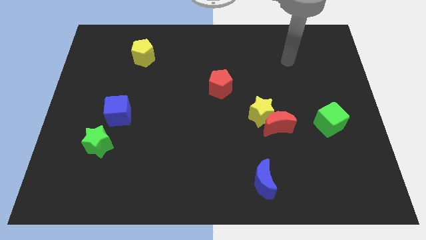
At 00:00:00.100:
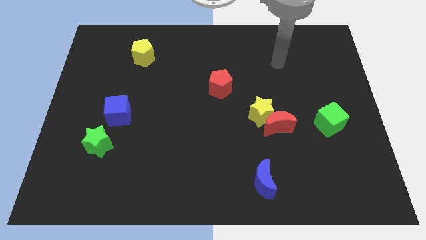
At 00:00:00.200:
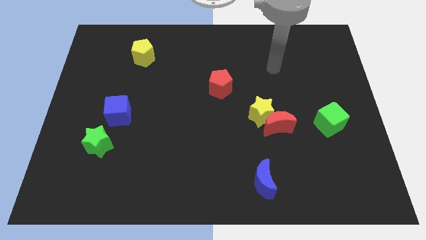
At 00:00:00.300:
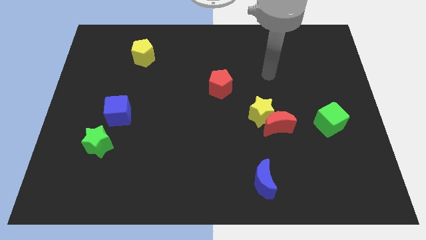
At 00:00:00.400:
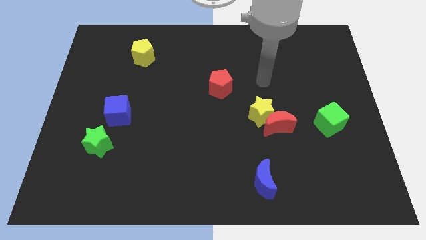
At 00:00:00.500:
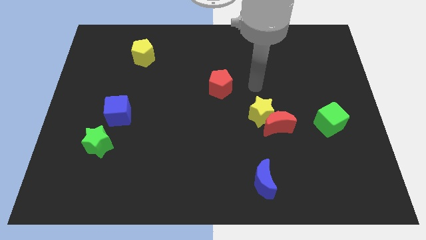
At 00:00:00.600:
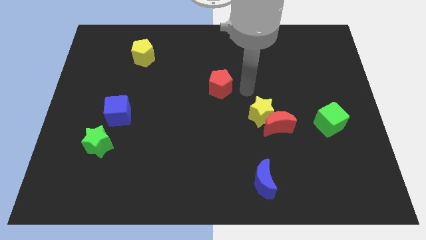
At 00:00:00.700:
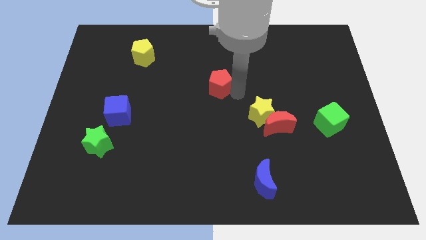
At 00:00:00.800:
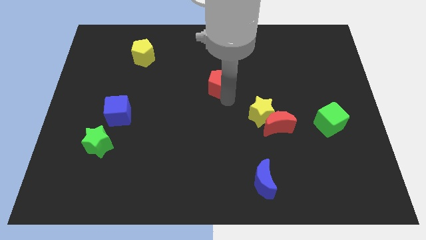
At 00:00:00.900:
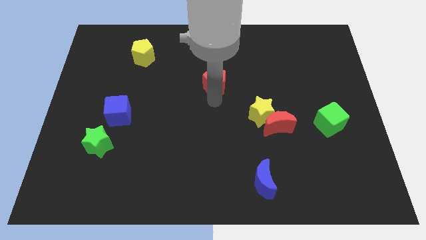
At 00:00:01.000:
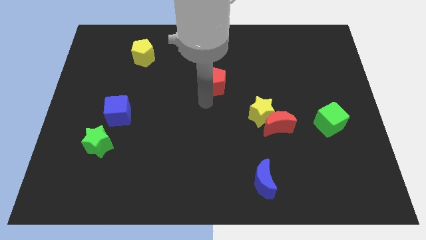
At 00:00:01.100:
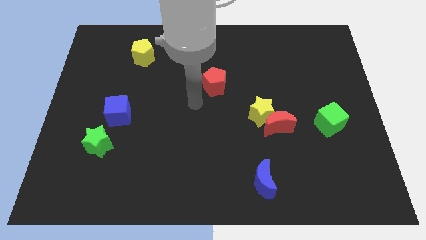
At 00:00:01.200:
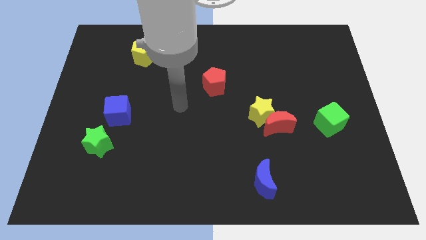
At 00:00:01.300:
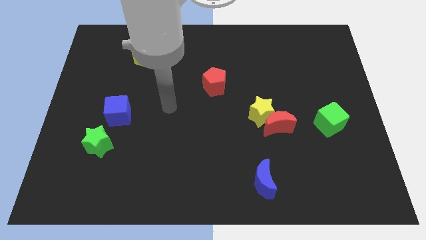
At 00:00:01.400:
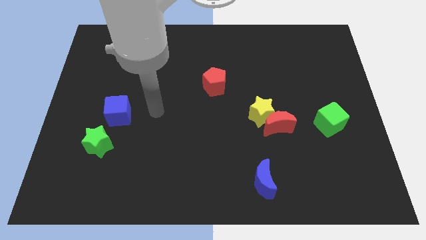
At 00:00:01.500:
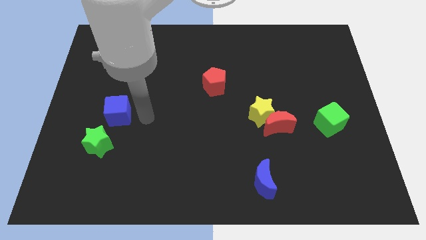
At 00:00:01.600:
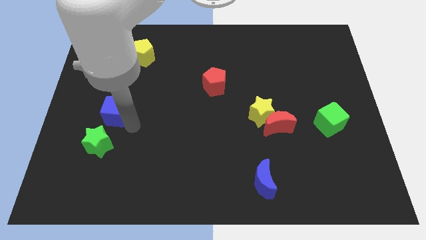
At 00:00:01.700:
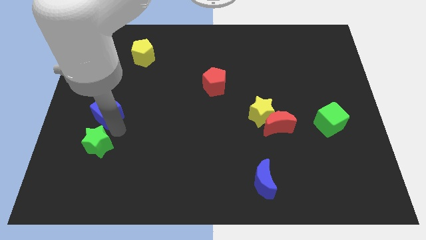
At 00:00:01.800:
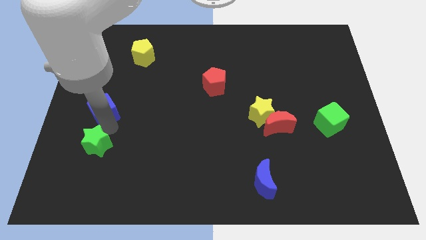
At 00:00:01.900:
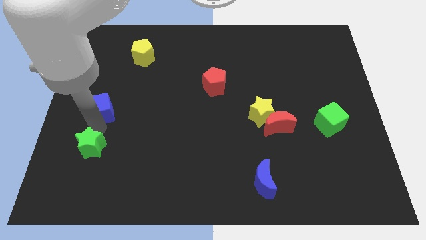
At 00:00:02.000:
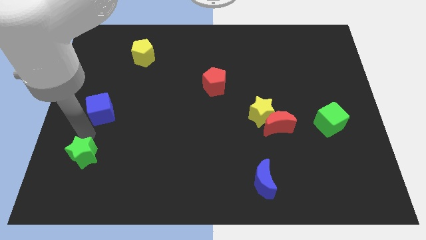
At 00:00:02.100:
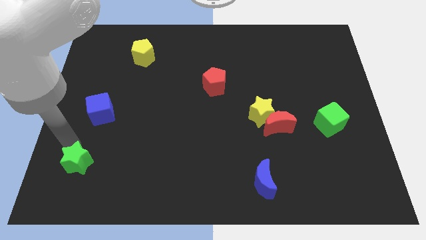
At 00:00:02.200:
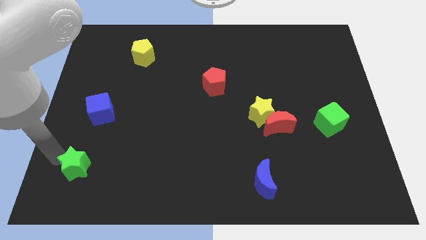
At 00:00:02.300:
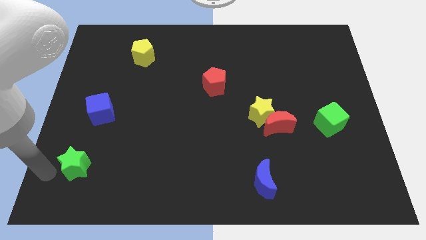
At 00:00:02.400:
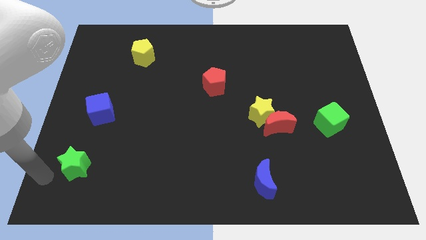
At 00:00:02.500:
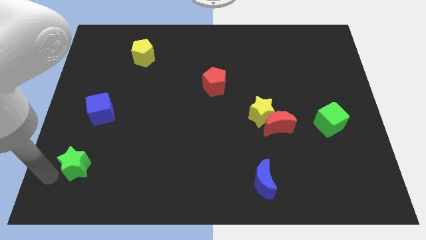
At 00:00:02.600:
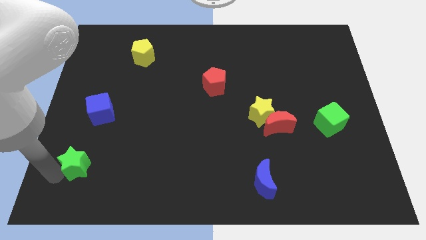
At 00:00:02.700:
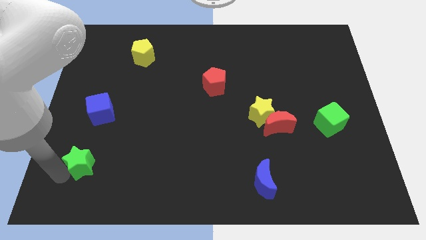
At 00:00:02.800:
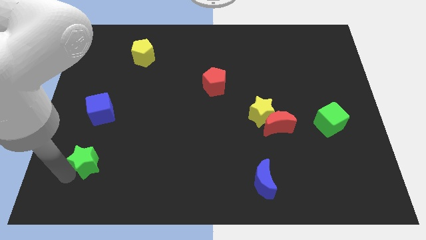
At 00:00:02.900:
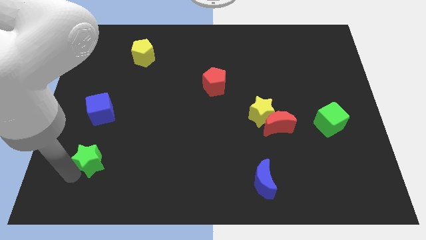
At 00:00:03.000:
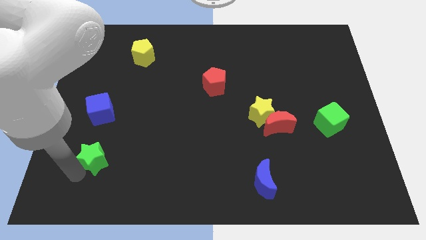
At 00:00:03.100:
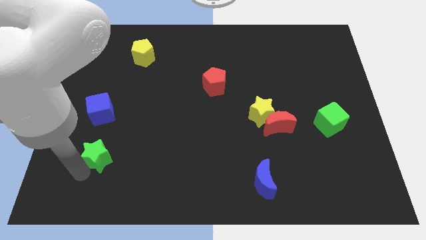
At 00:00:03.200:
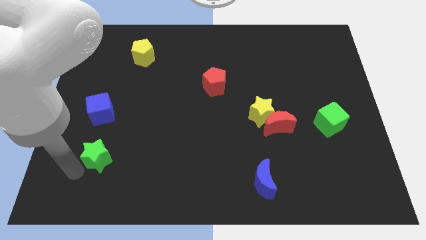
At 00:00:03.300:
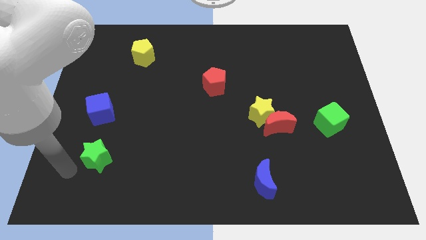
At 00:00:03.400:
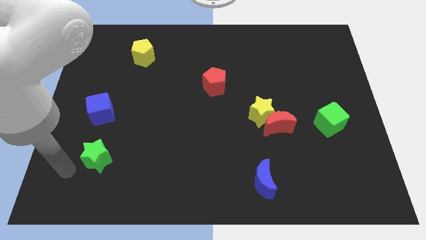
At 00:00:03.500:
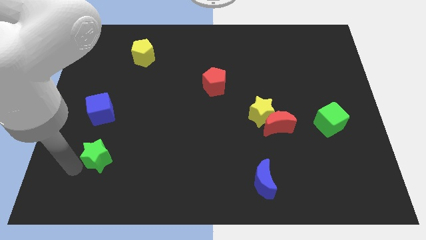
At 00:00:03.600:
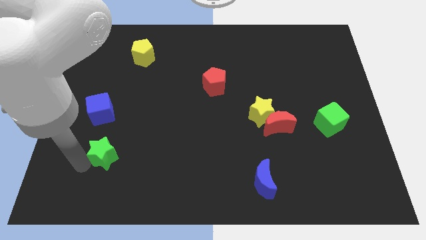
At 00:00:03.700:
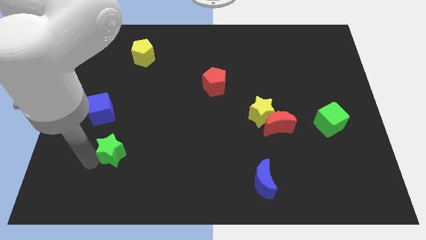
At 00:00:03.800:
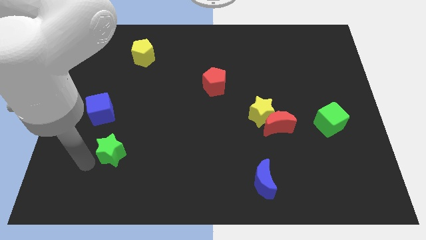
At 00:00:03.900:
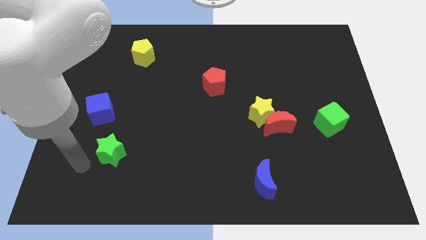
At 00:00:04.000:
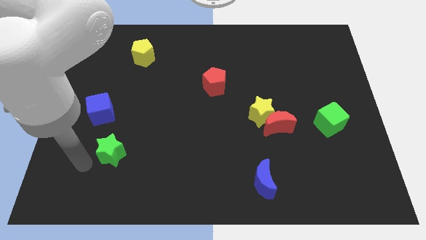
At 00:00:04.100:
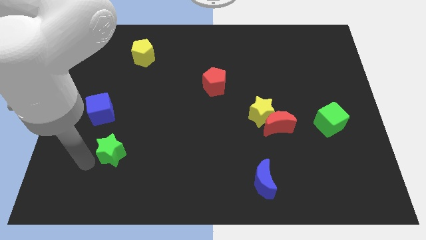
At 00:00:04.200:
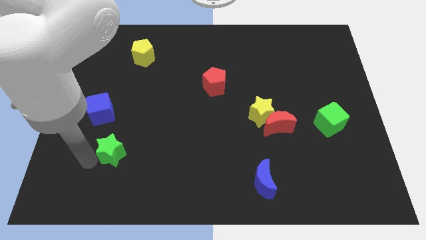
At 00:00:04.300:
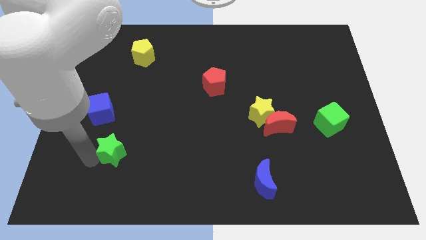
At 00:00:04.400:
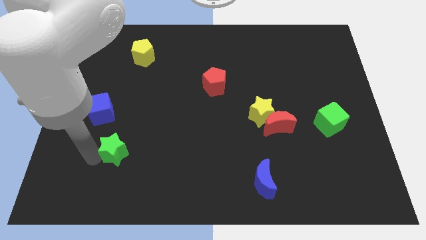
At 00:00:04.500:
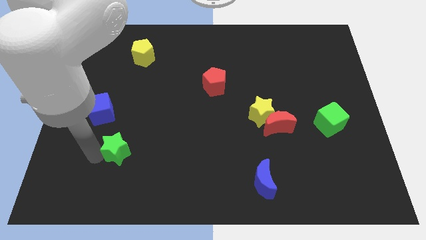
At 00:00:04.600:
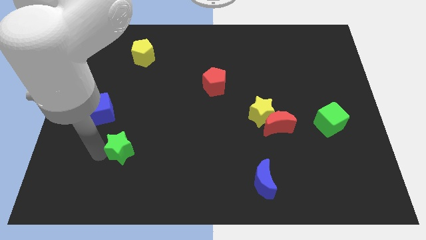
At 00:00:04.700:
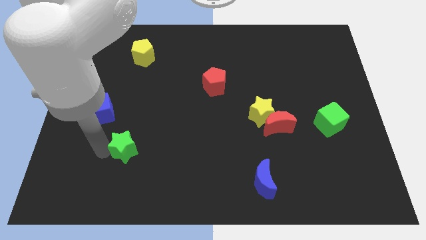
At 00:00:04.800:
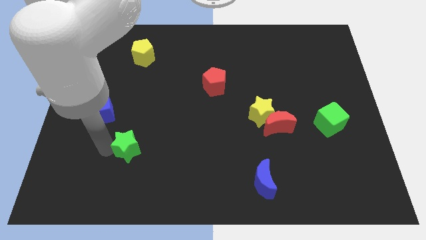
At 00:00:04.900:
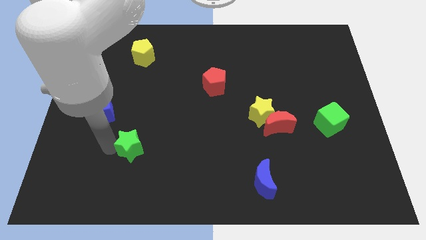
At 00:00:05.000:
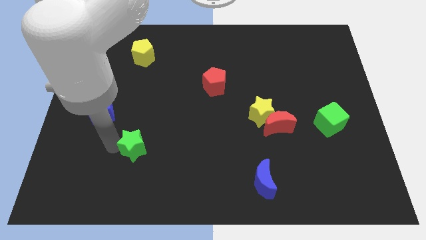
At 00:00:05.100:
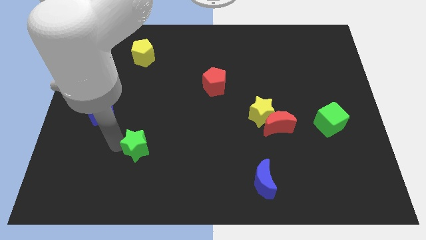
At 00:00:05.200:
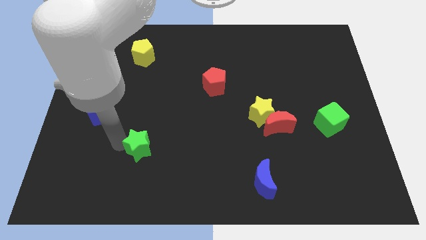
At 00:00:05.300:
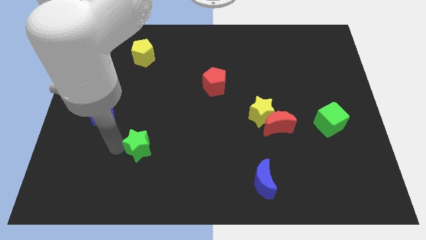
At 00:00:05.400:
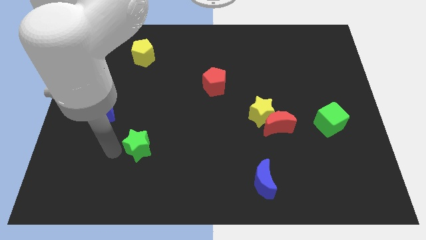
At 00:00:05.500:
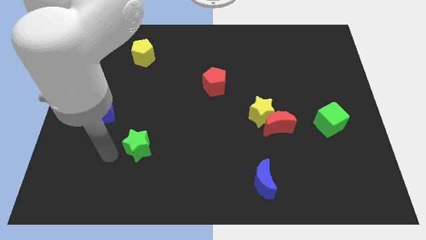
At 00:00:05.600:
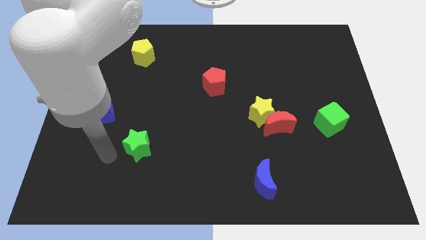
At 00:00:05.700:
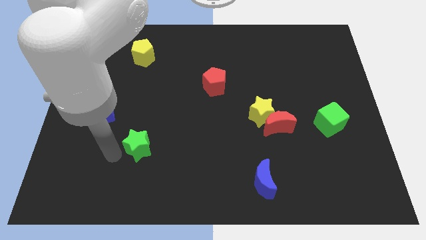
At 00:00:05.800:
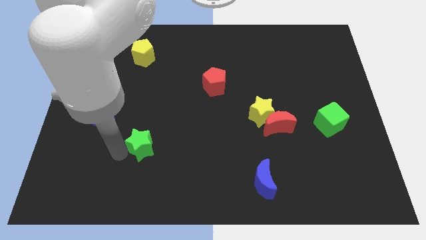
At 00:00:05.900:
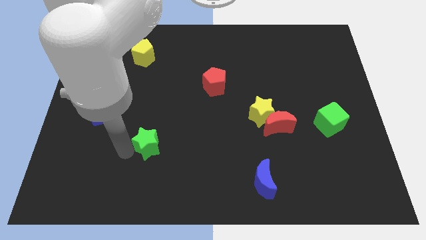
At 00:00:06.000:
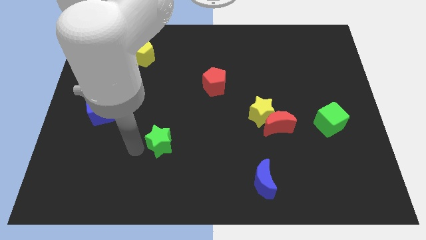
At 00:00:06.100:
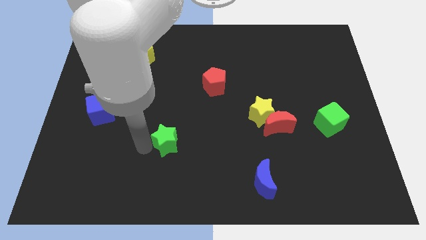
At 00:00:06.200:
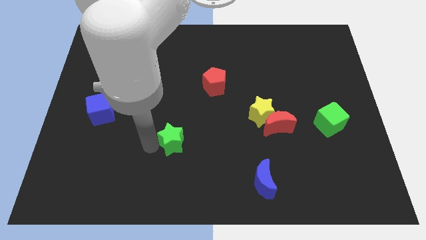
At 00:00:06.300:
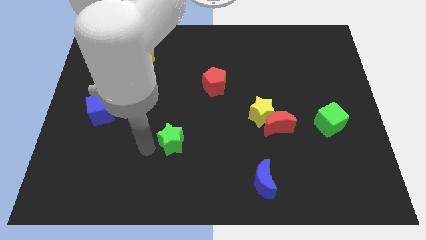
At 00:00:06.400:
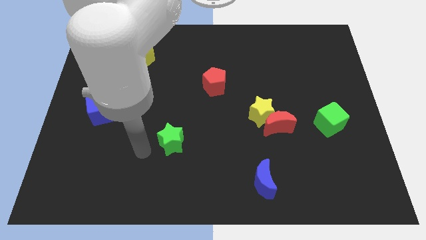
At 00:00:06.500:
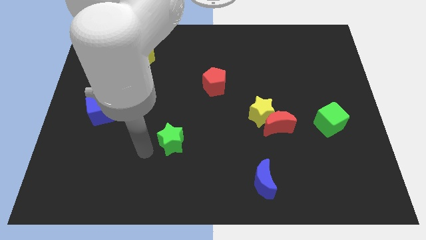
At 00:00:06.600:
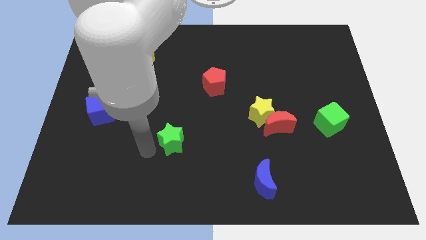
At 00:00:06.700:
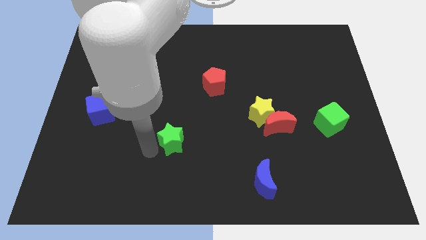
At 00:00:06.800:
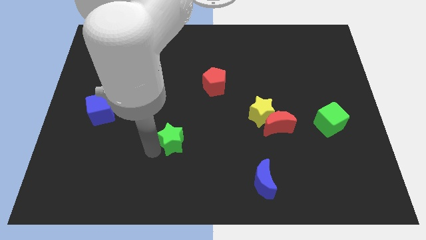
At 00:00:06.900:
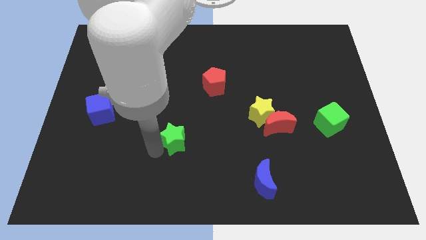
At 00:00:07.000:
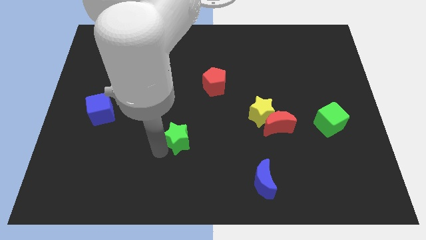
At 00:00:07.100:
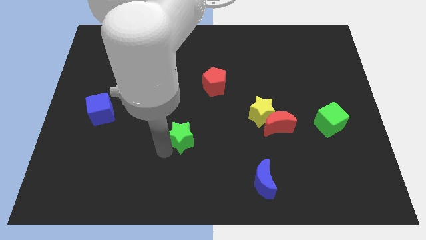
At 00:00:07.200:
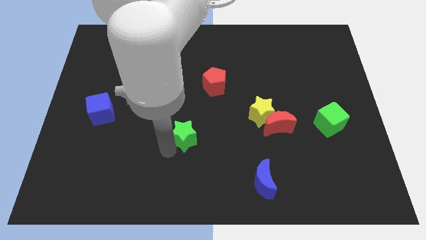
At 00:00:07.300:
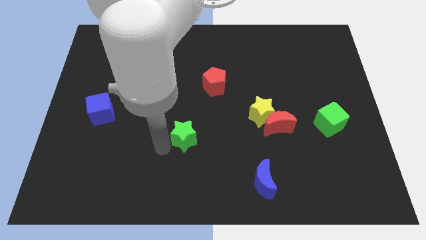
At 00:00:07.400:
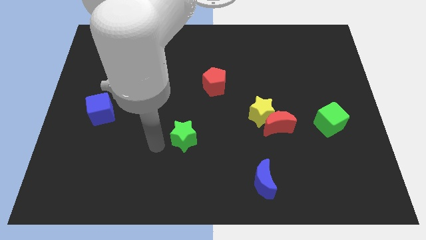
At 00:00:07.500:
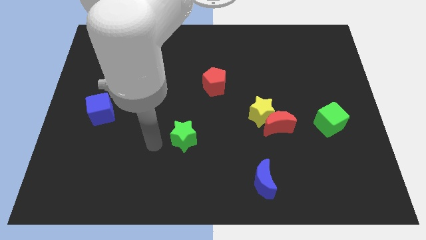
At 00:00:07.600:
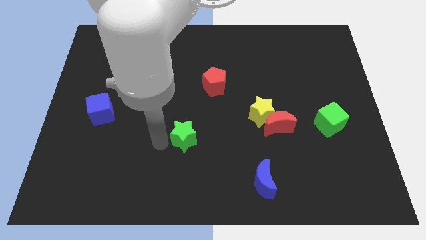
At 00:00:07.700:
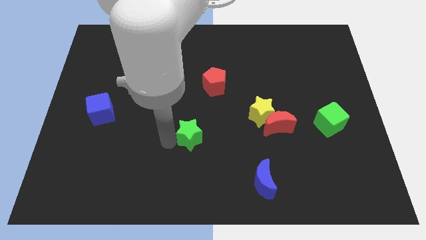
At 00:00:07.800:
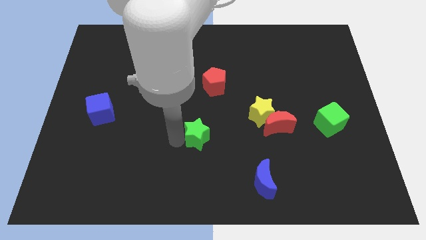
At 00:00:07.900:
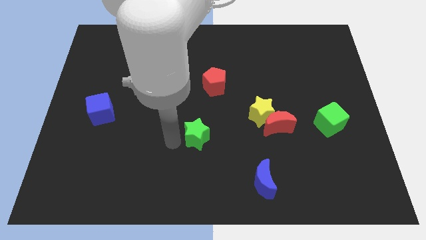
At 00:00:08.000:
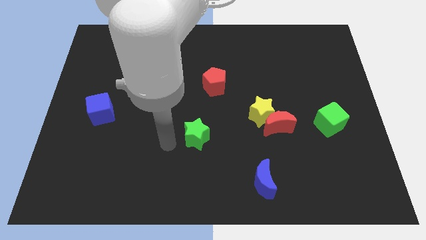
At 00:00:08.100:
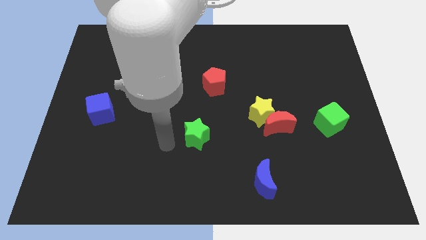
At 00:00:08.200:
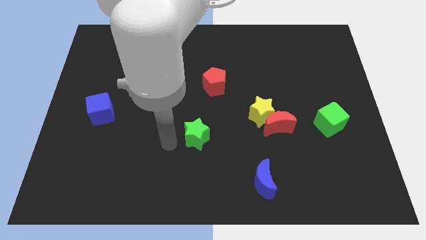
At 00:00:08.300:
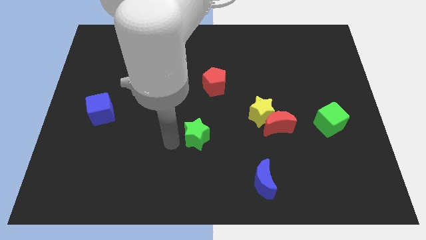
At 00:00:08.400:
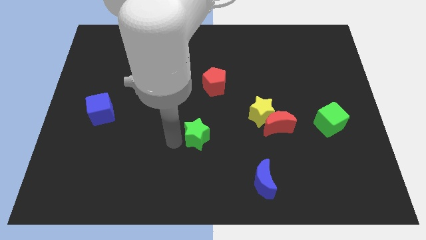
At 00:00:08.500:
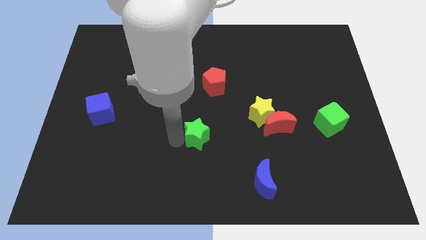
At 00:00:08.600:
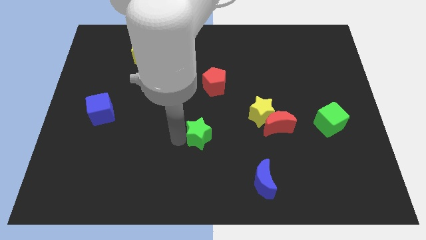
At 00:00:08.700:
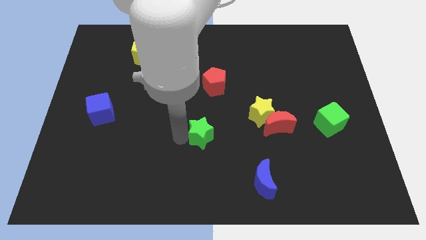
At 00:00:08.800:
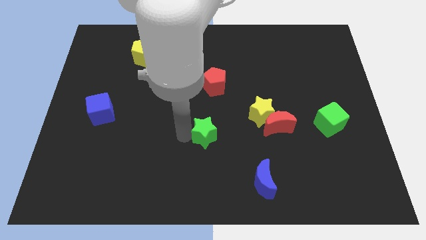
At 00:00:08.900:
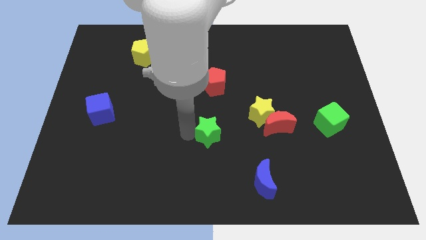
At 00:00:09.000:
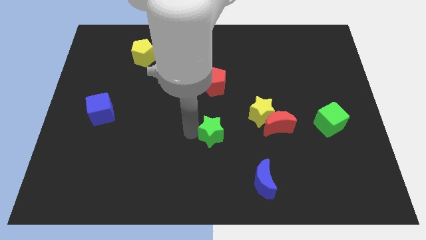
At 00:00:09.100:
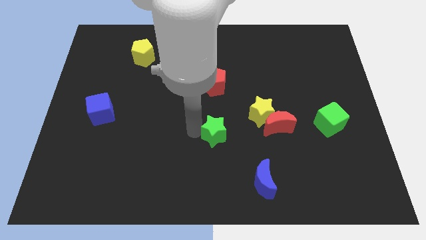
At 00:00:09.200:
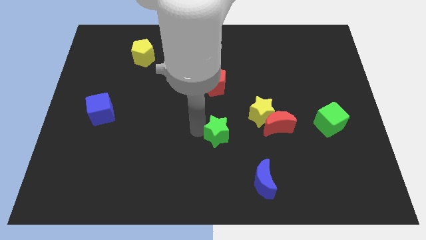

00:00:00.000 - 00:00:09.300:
push the green star to the bottom left of the yellow star
